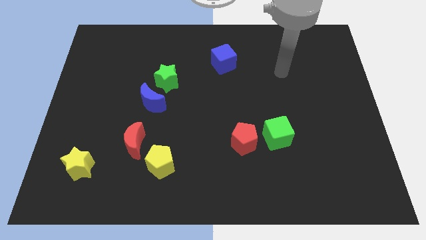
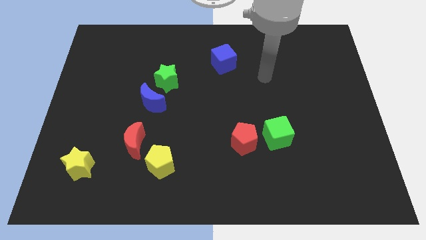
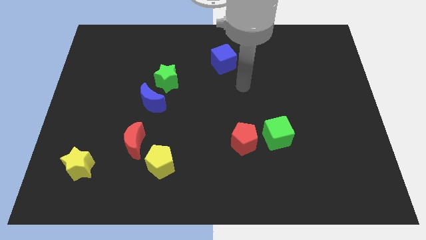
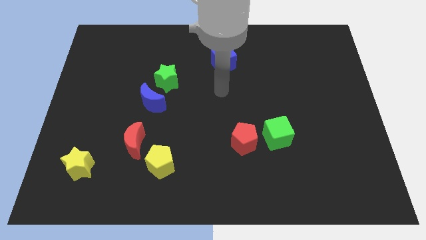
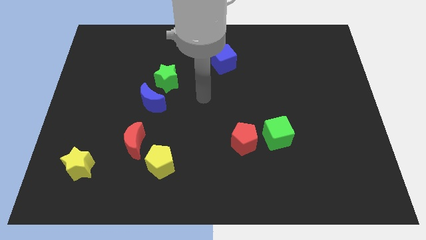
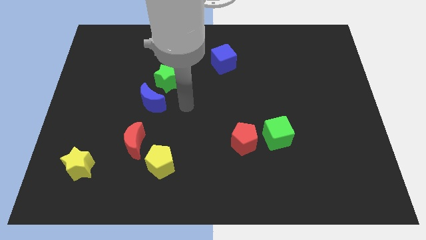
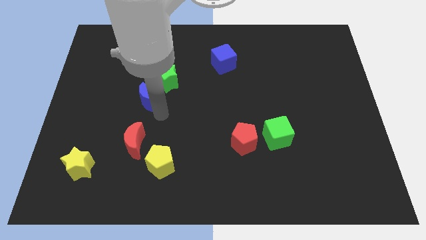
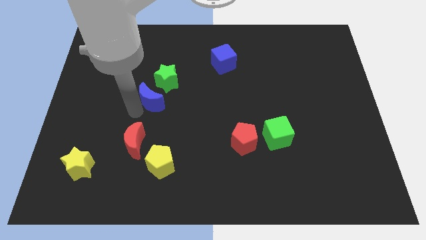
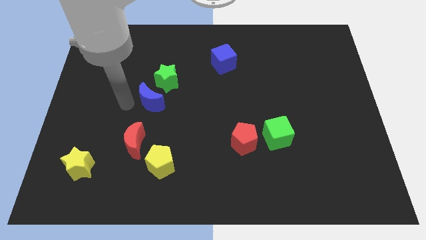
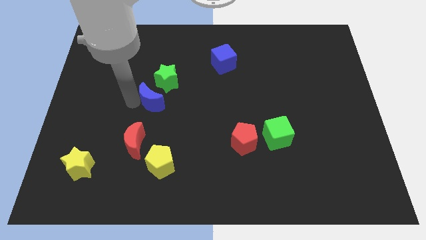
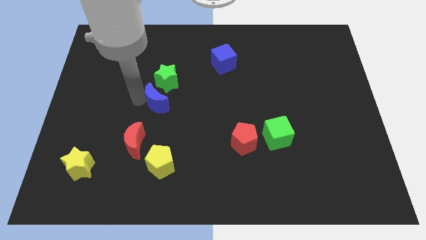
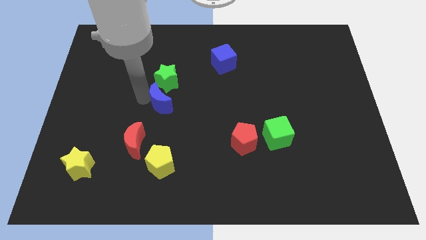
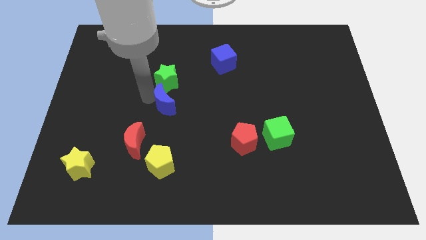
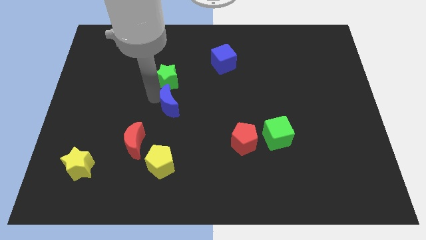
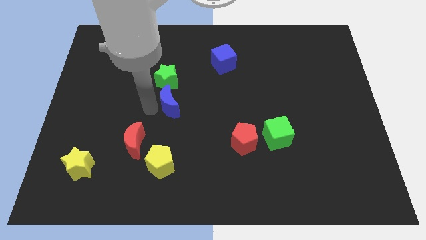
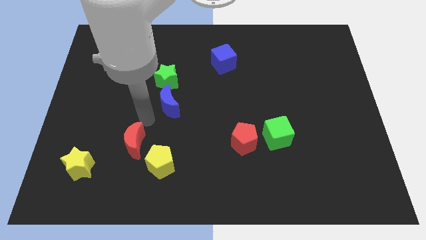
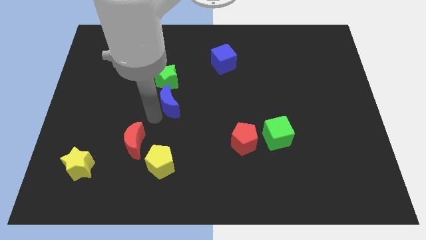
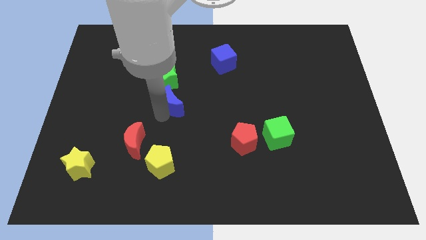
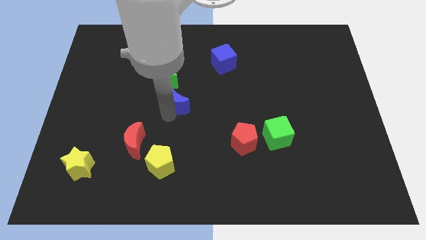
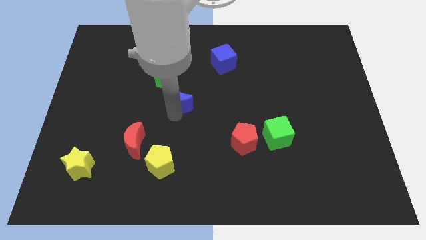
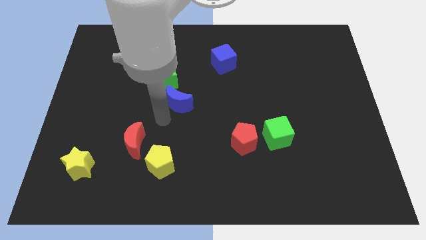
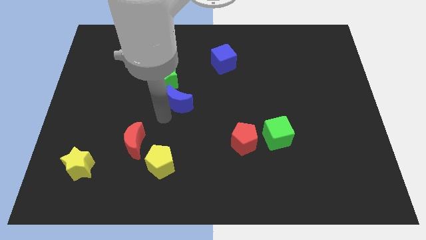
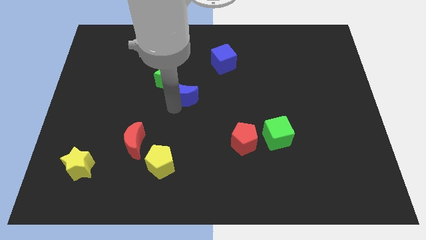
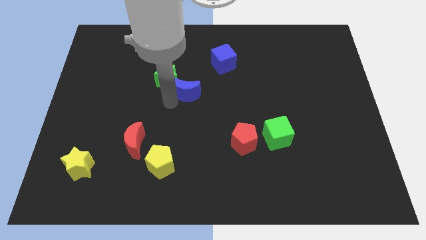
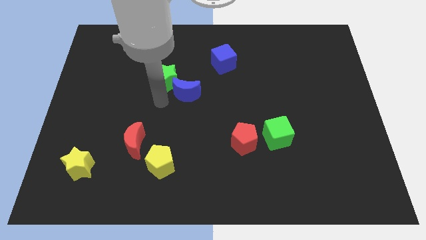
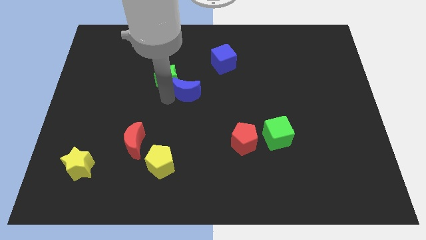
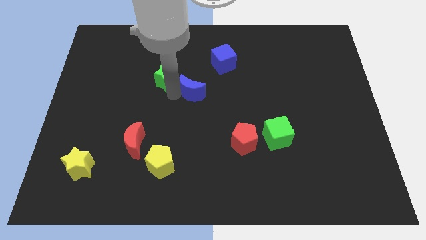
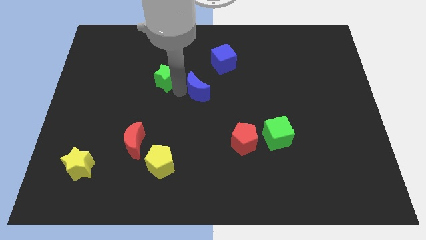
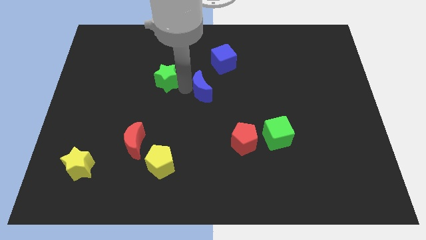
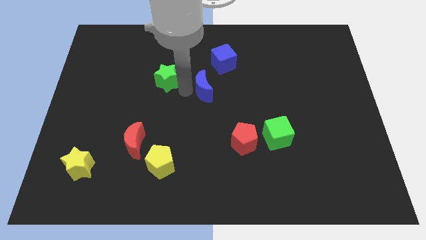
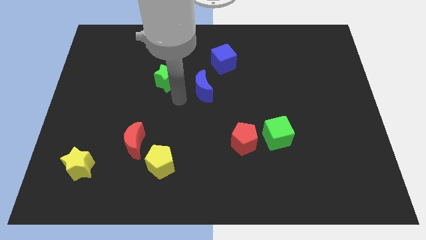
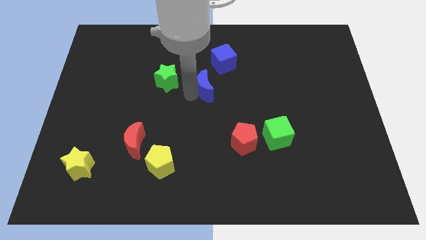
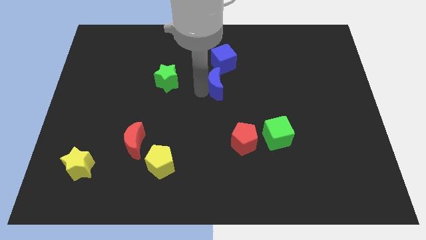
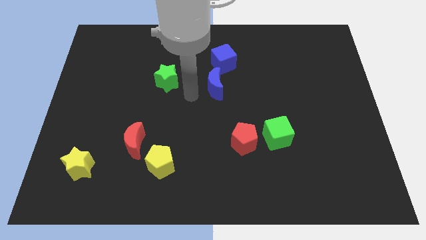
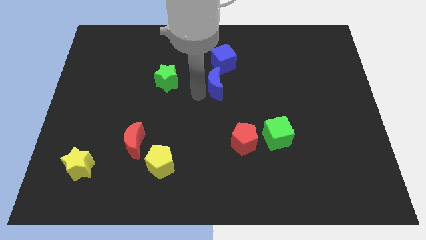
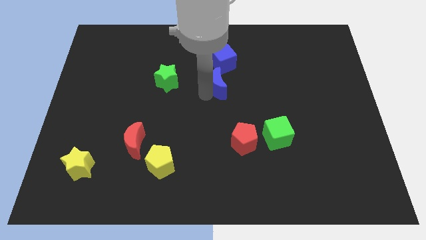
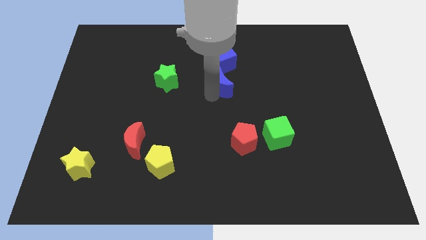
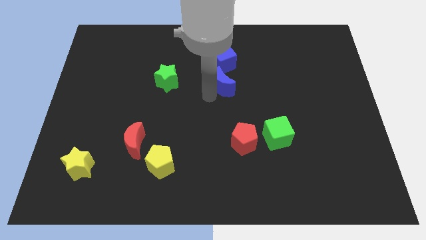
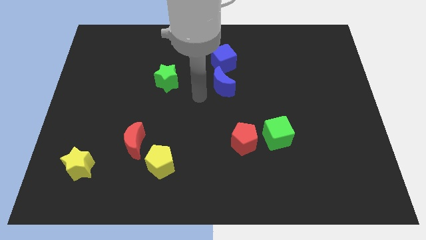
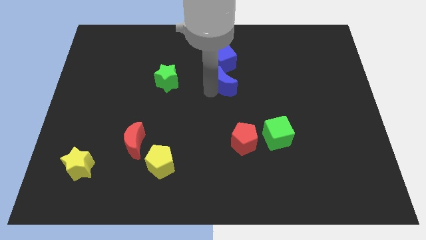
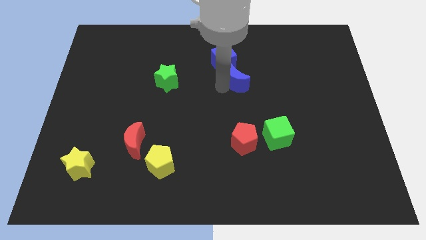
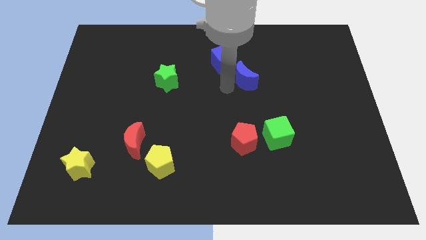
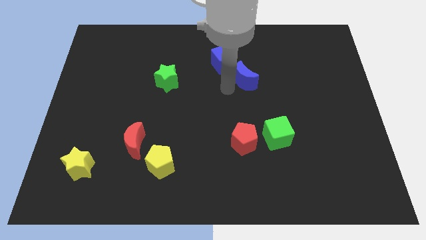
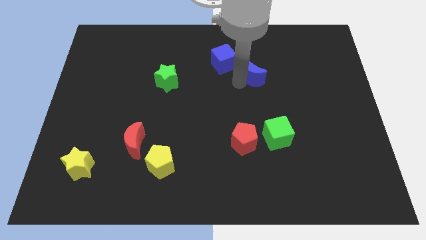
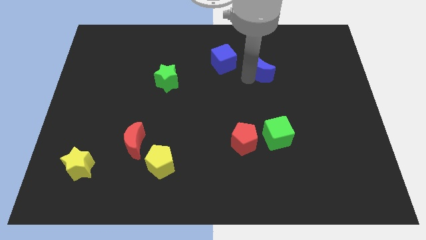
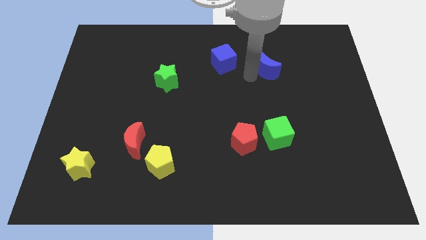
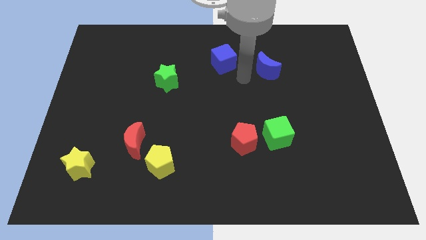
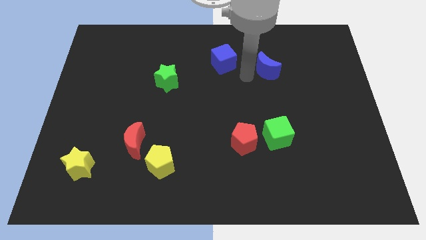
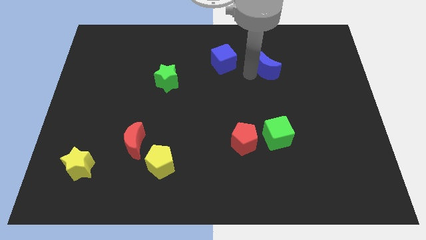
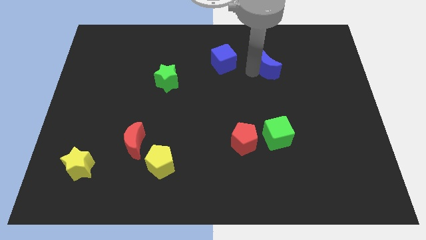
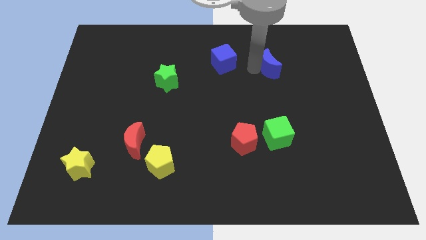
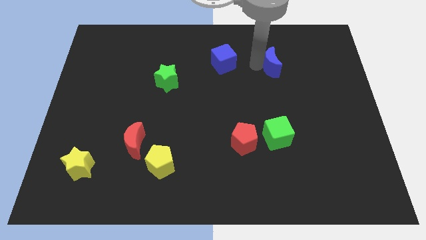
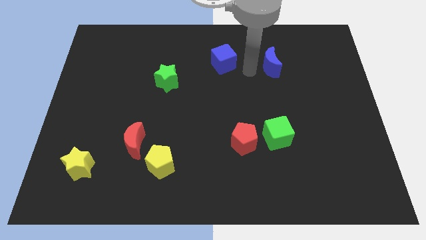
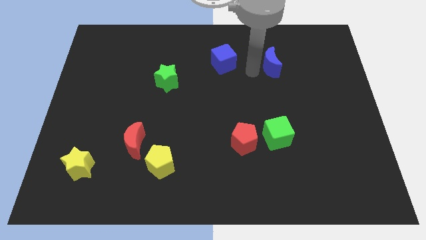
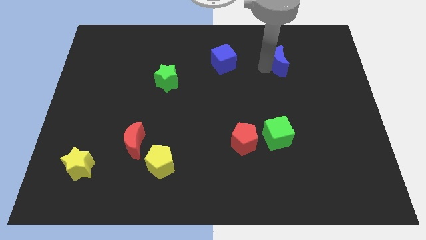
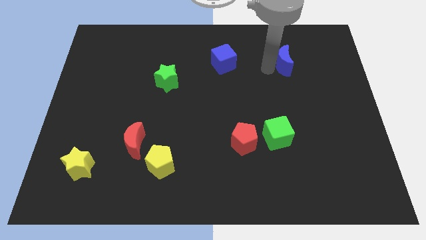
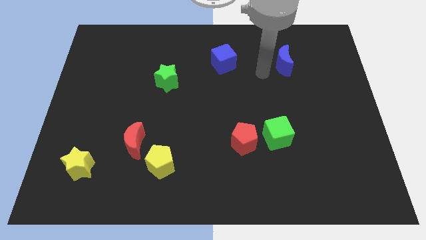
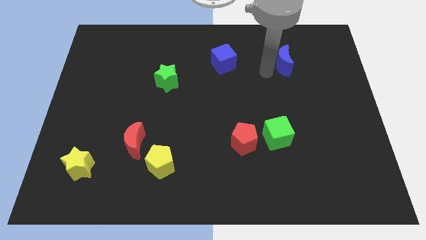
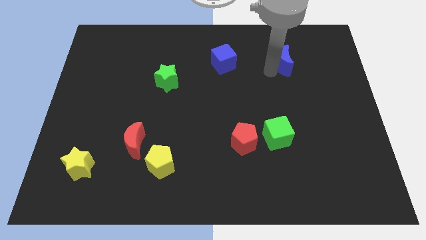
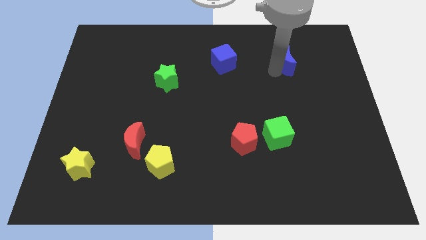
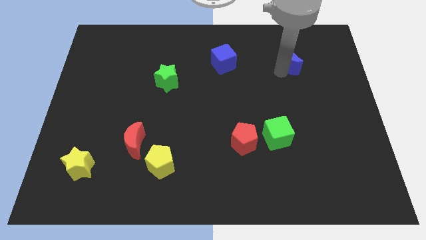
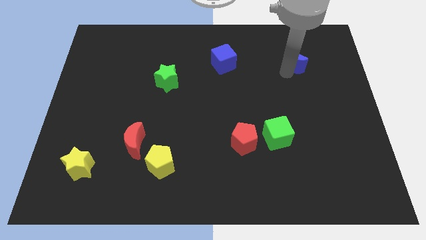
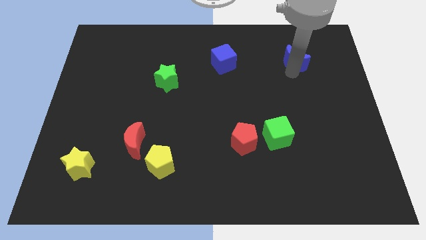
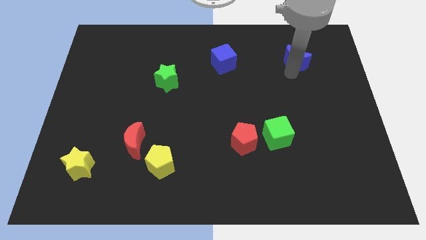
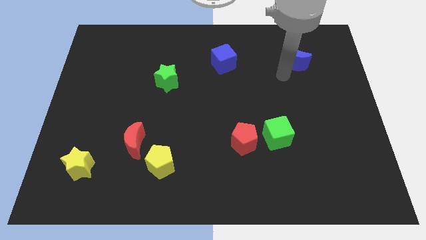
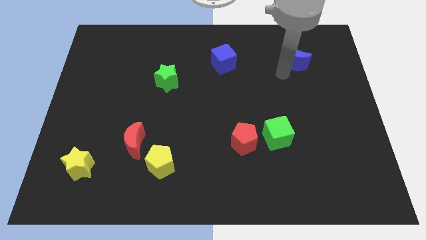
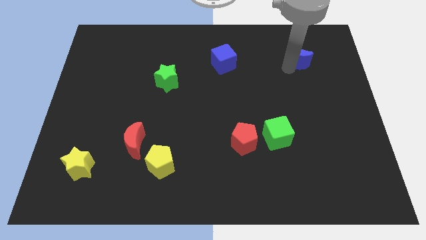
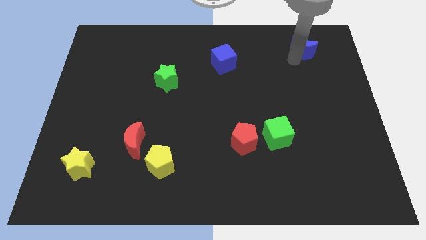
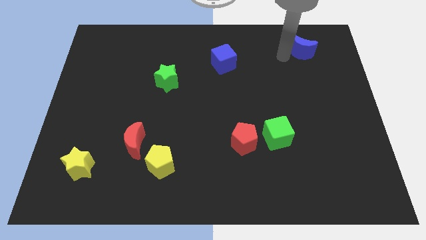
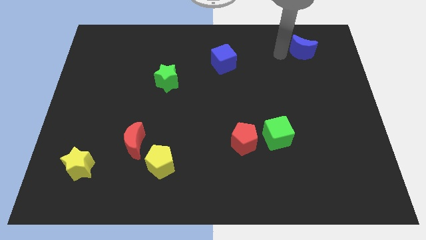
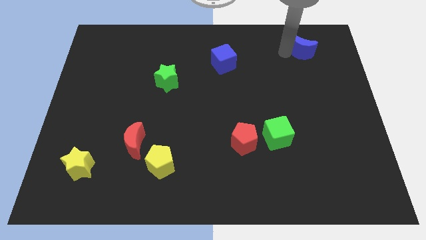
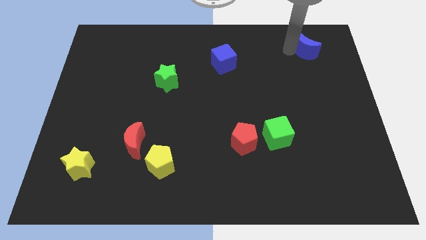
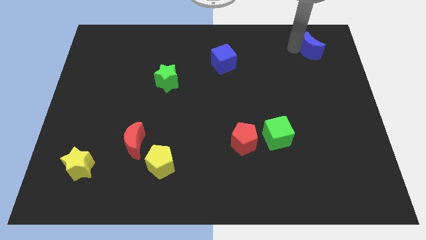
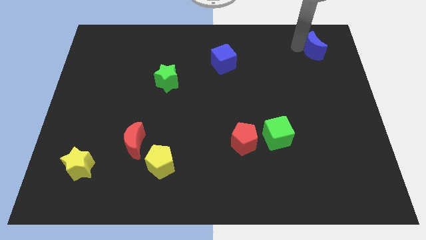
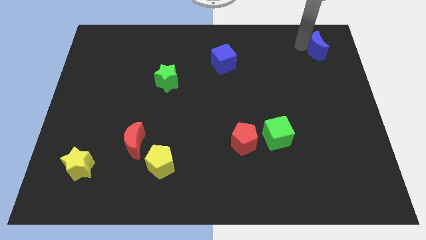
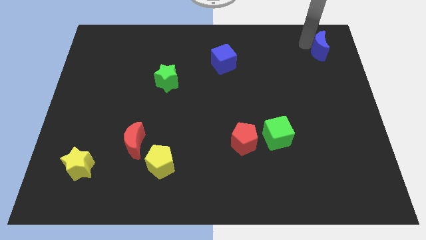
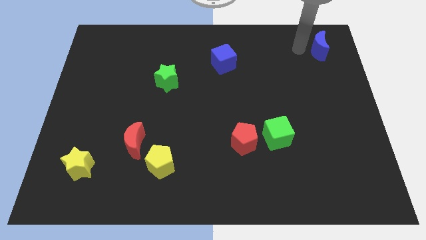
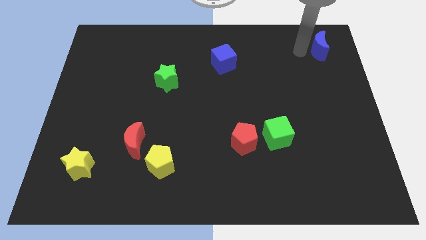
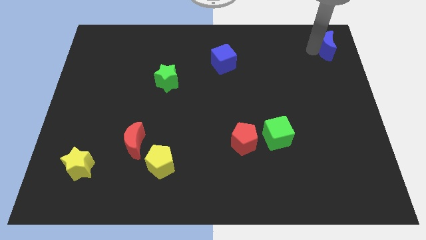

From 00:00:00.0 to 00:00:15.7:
move the blue moon to the top right
